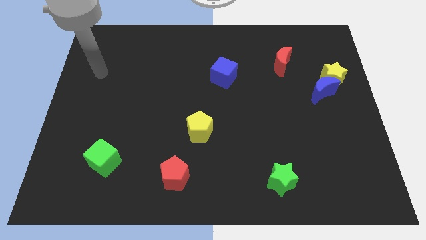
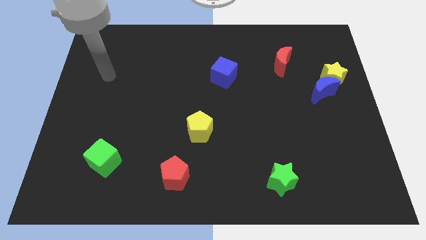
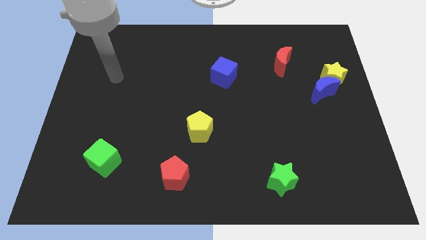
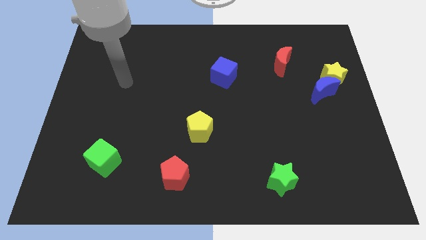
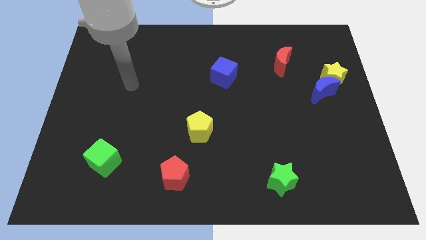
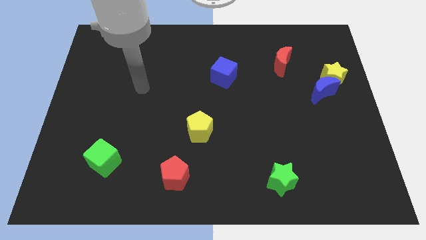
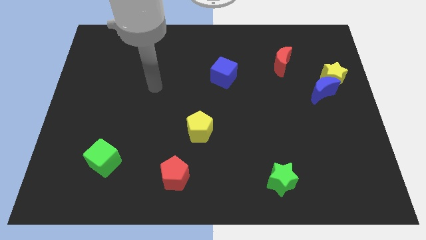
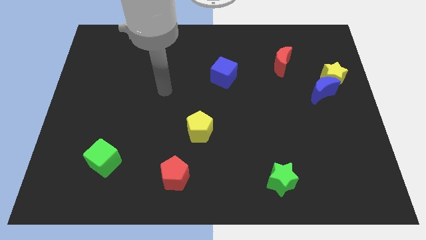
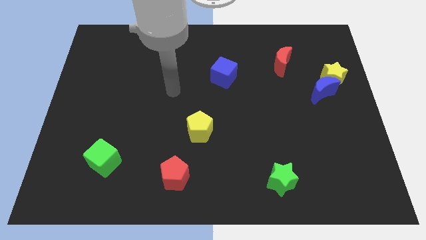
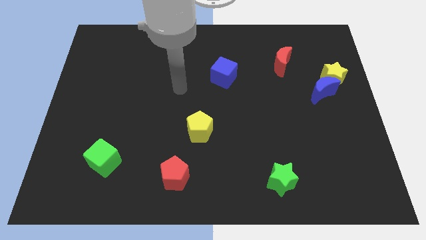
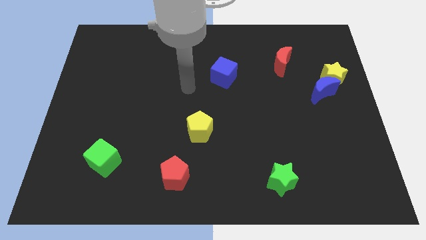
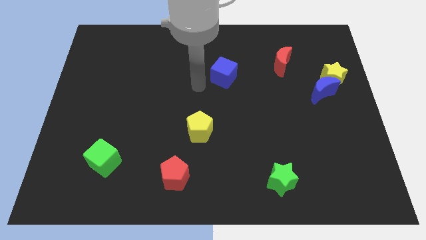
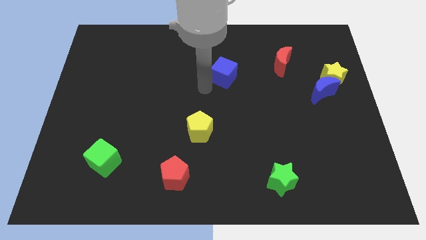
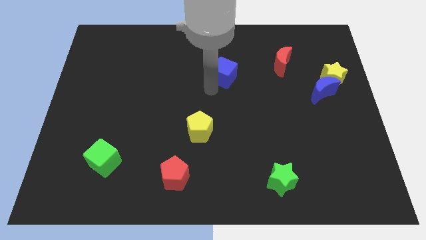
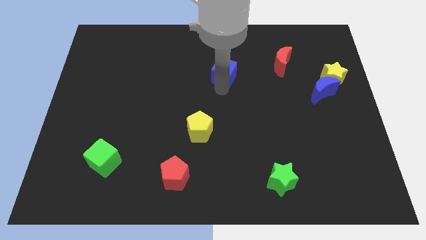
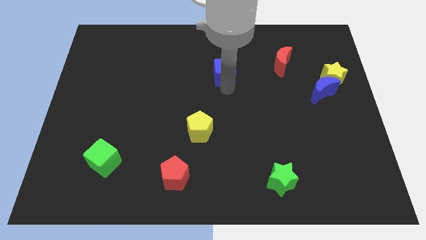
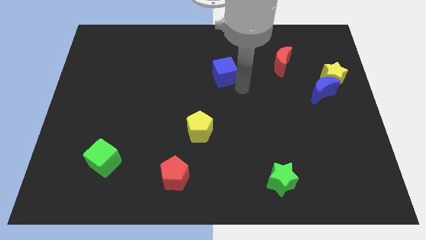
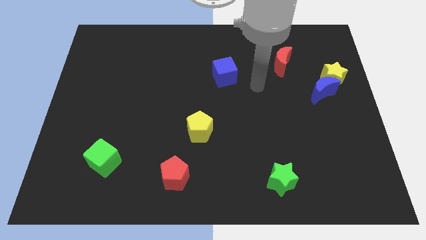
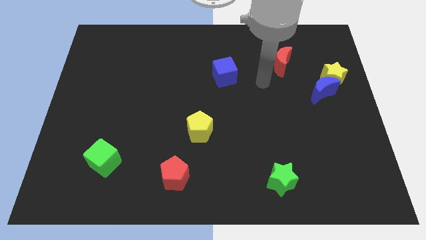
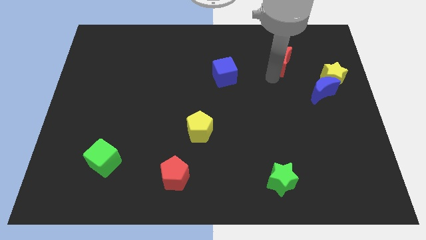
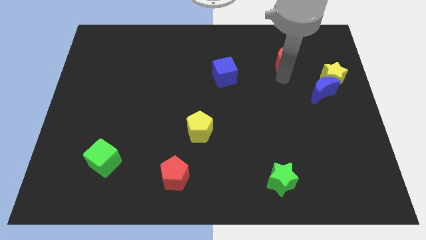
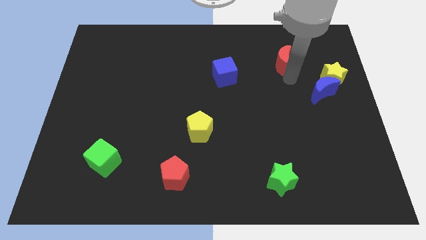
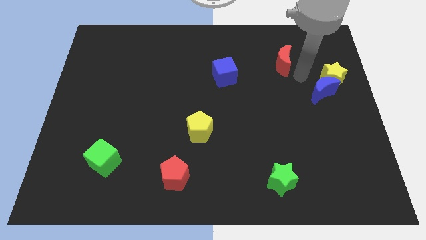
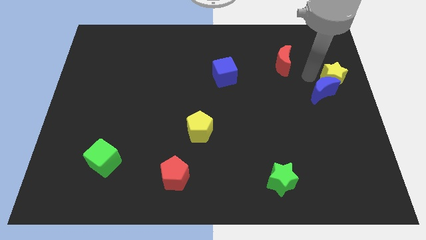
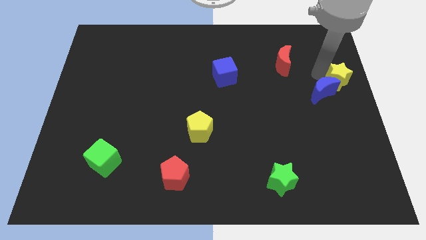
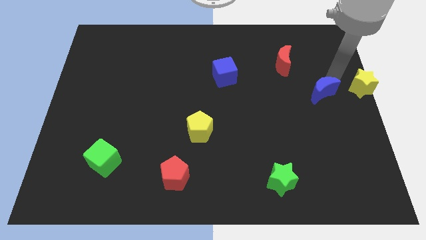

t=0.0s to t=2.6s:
separate the blue moon from the yellow star

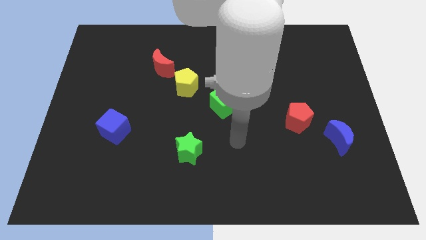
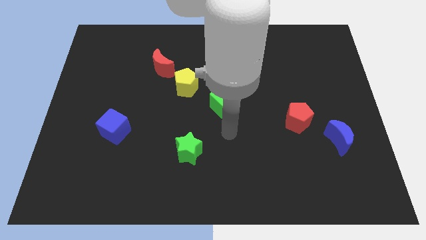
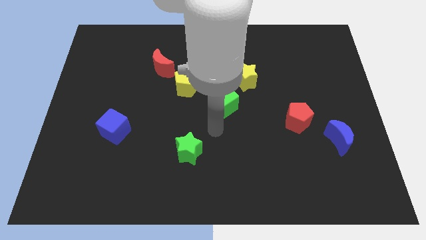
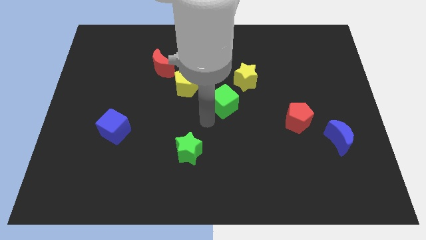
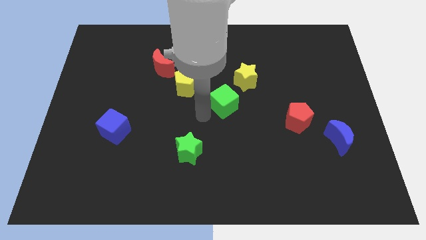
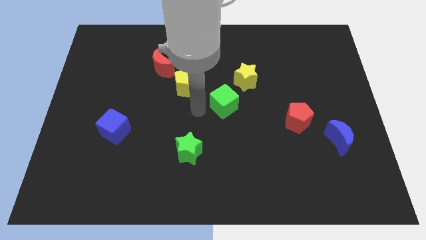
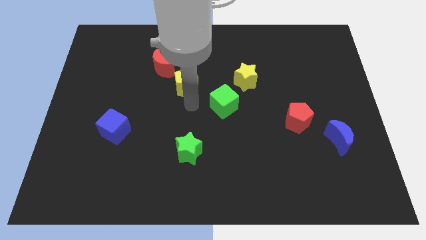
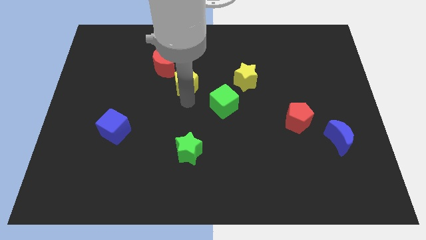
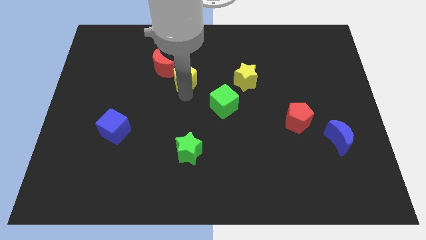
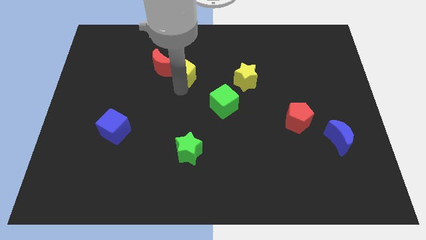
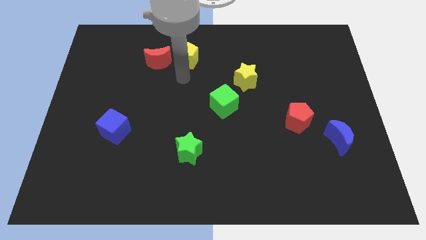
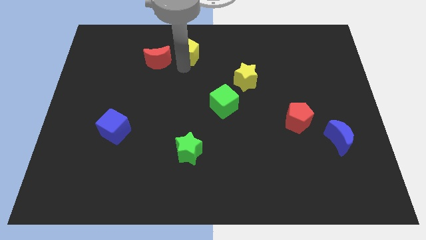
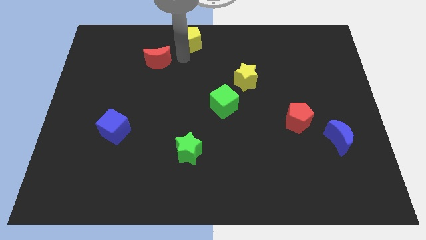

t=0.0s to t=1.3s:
separate the red moon from the yellow pentagon

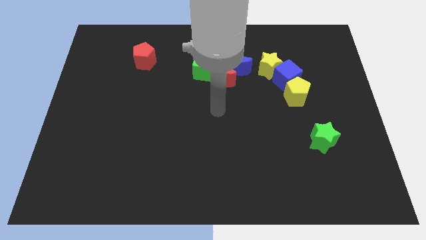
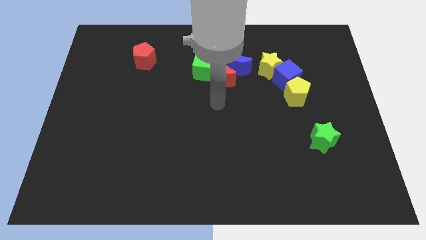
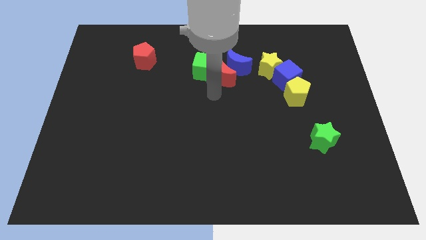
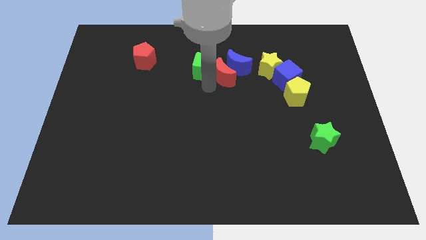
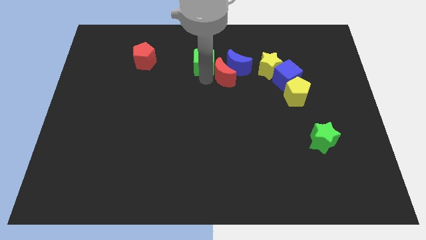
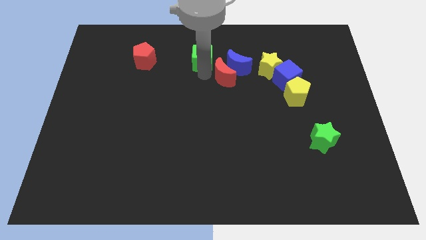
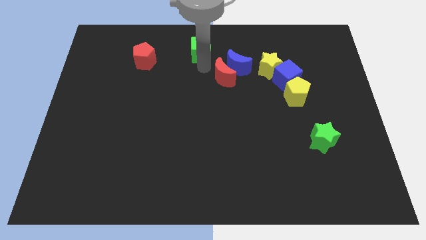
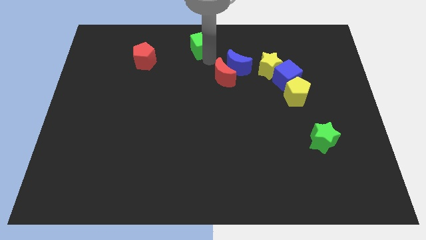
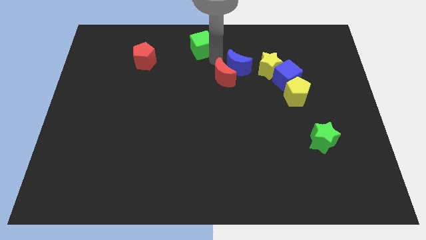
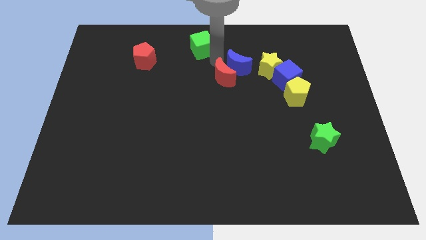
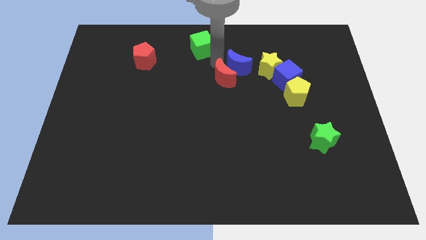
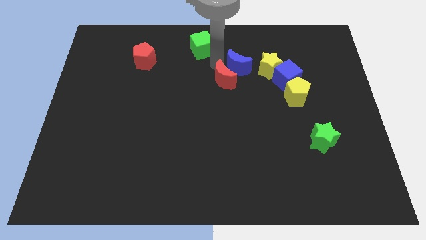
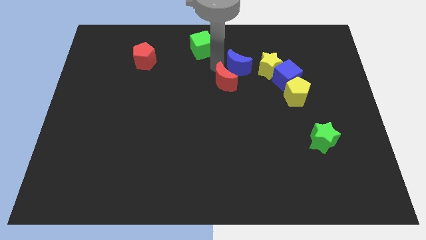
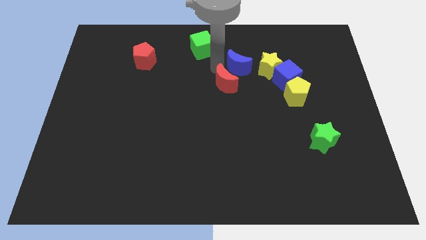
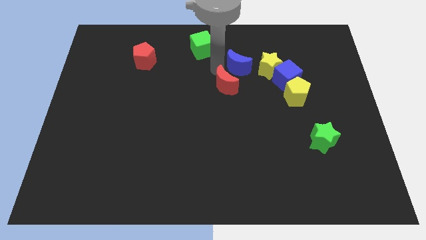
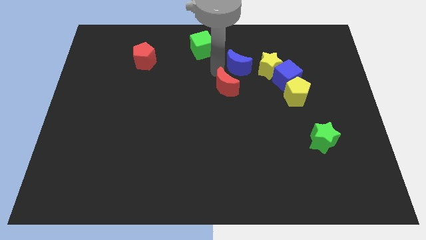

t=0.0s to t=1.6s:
move the red moon away from the blue moon and green cube

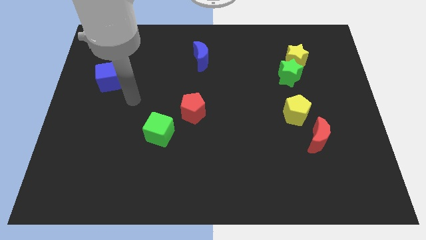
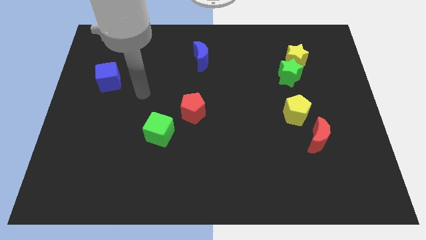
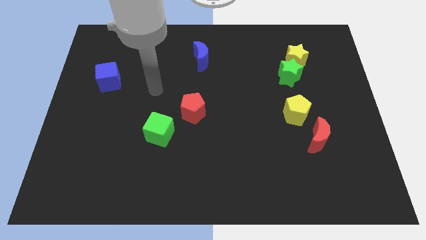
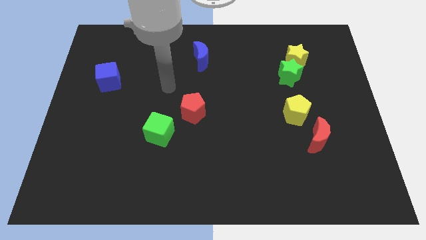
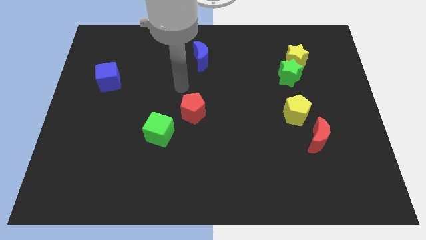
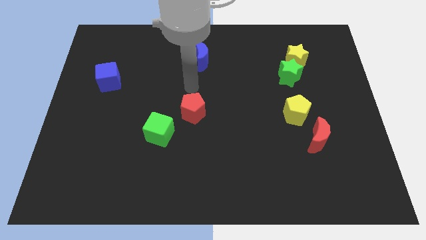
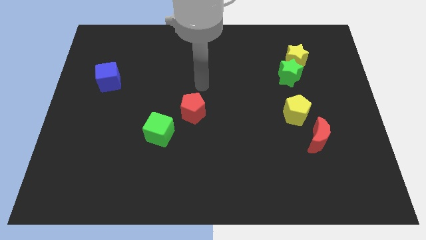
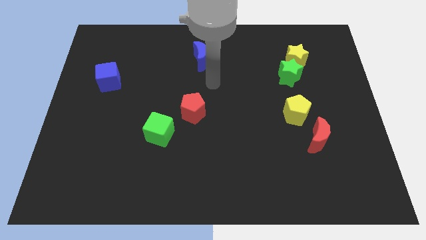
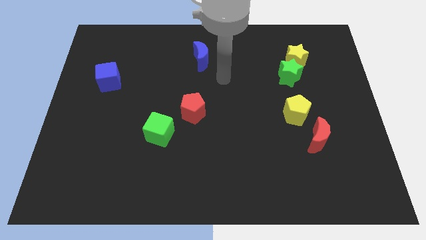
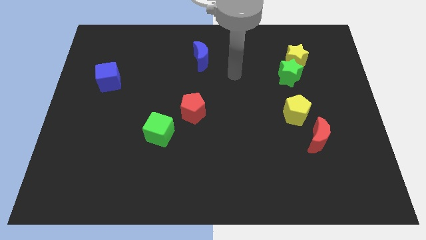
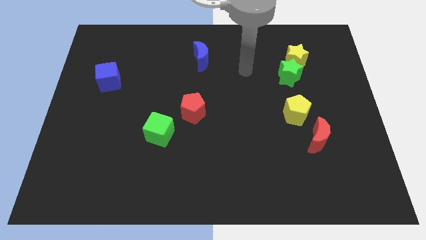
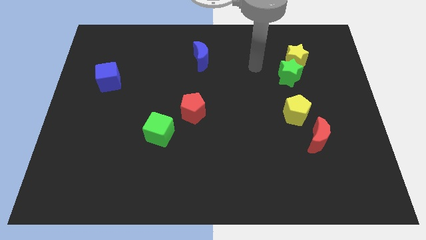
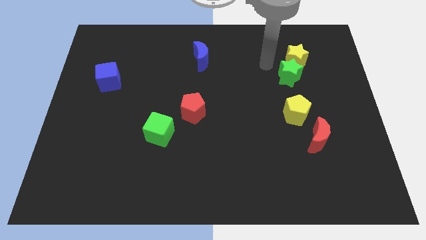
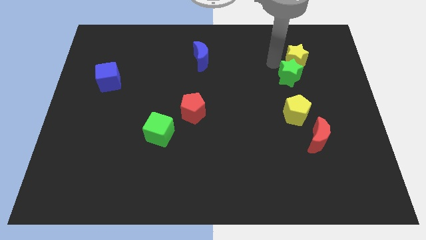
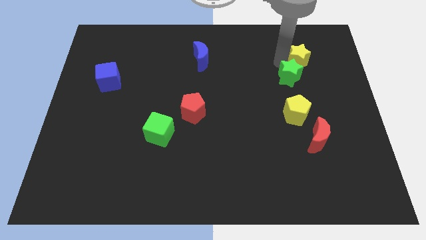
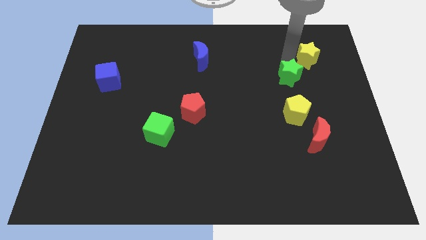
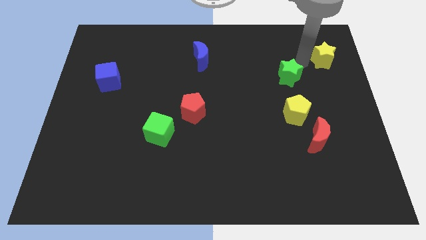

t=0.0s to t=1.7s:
move the green star away from the yellow star

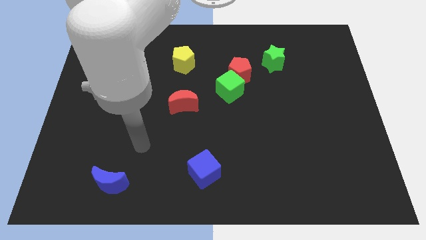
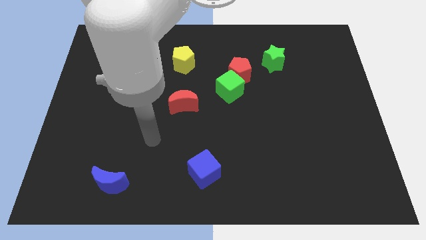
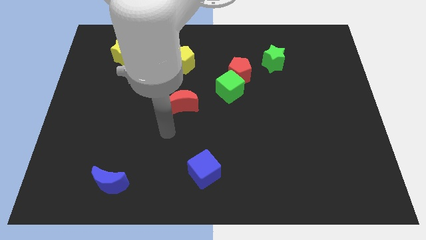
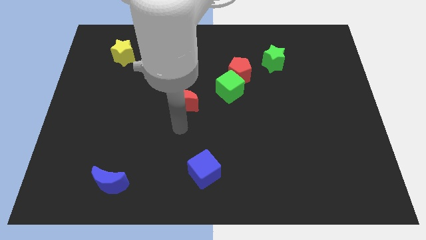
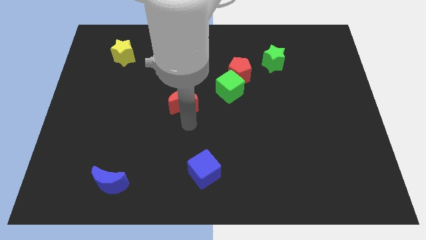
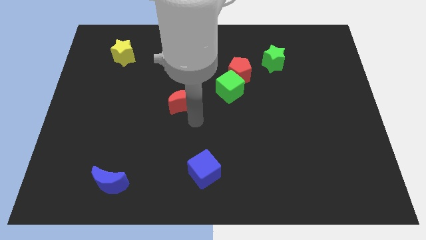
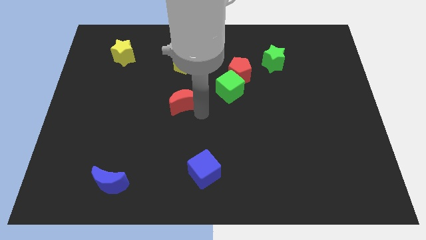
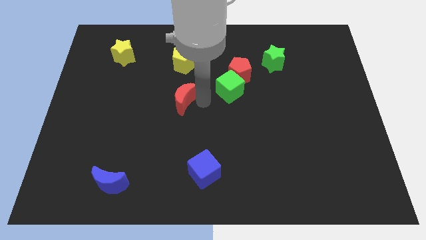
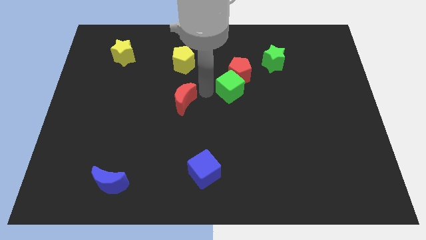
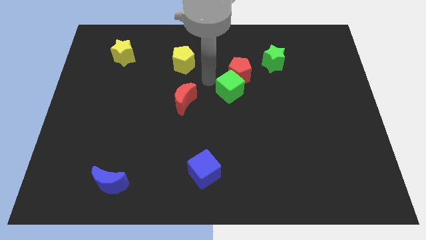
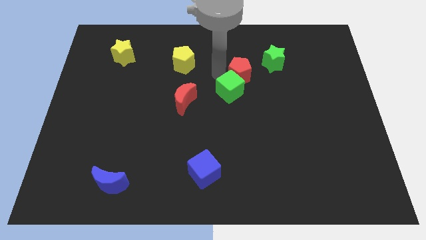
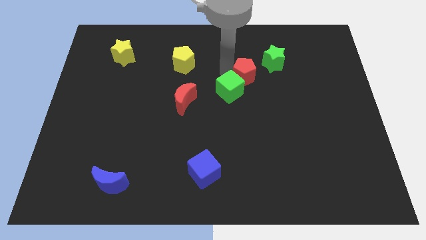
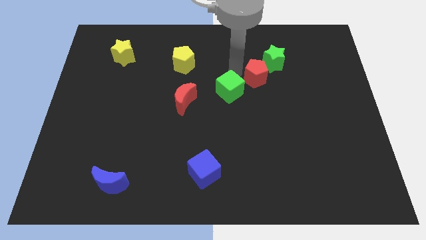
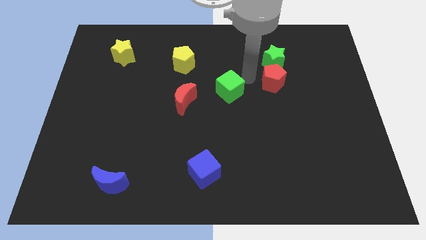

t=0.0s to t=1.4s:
separate the green cube from the red pentagon

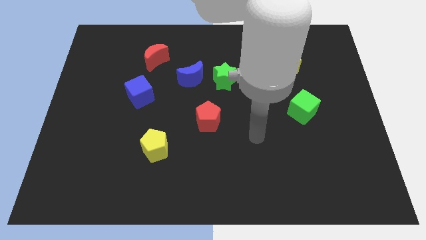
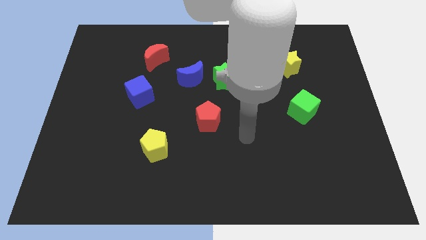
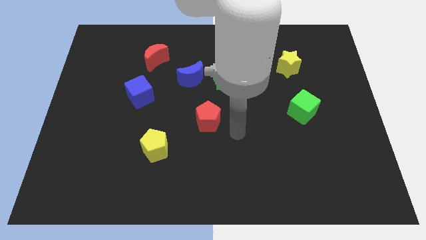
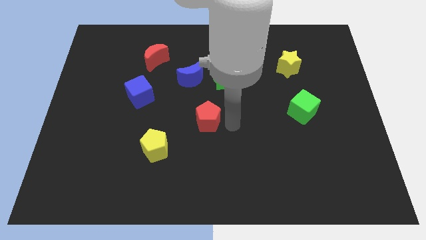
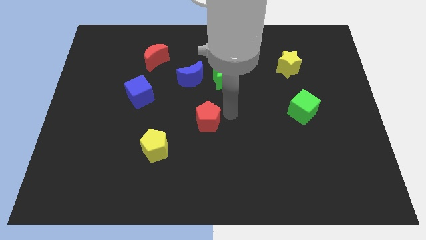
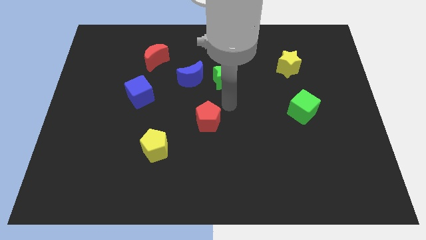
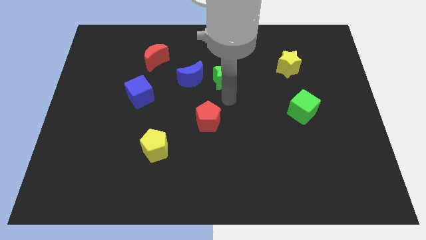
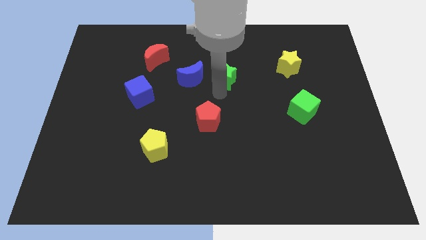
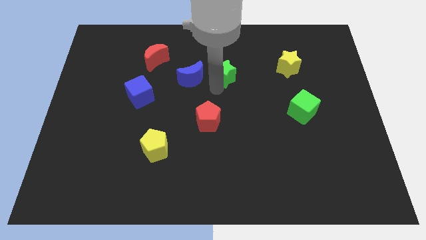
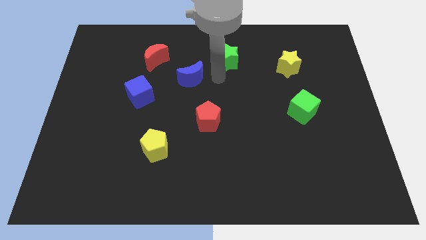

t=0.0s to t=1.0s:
pull the blue moon apart from the green star
